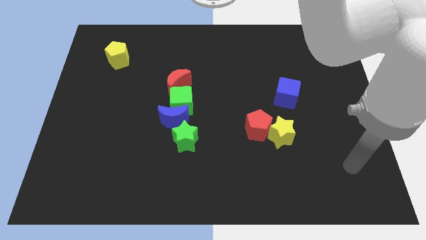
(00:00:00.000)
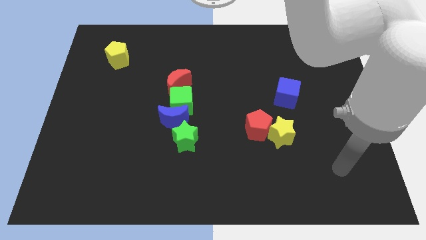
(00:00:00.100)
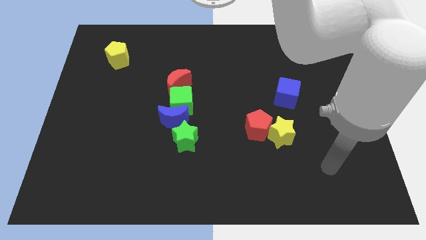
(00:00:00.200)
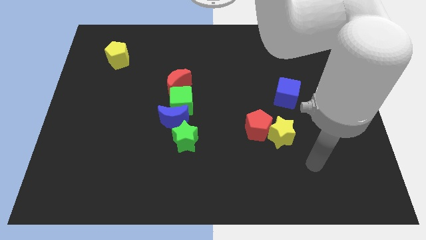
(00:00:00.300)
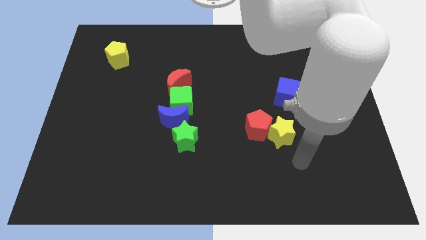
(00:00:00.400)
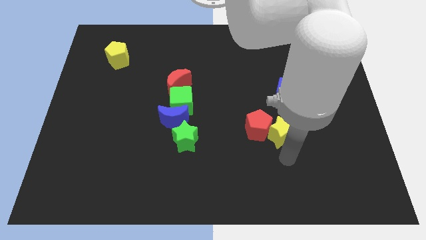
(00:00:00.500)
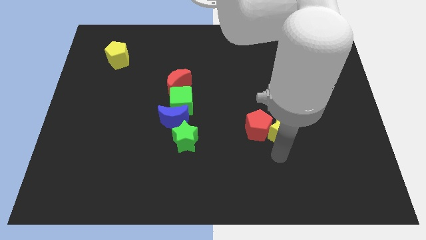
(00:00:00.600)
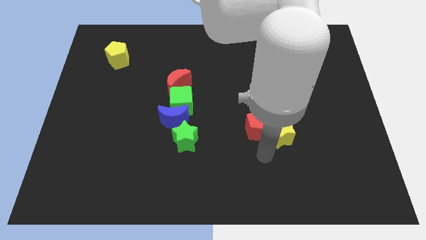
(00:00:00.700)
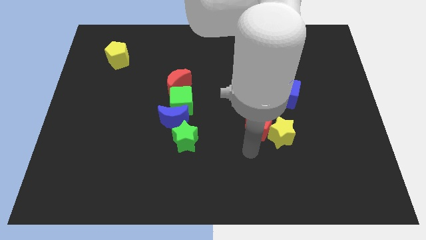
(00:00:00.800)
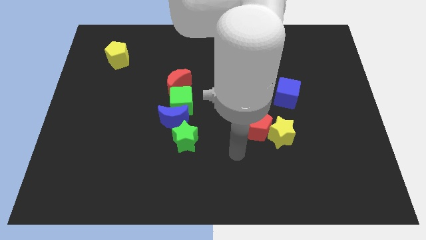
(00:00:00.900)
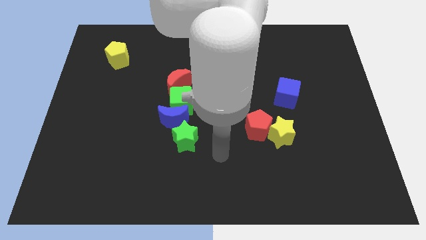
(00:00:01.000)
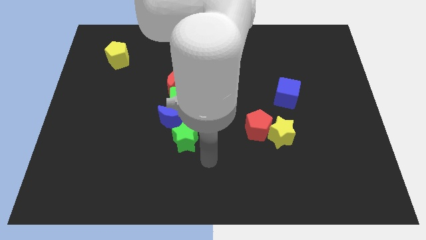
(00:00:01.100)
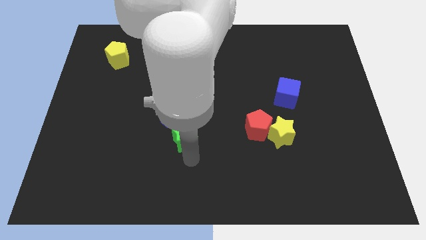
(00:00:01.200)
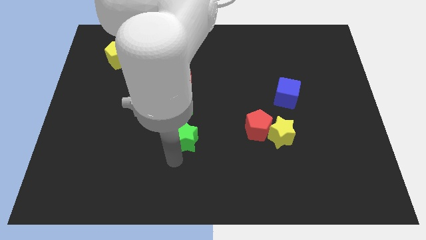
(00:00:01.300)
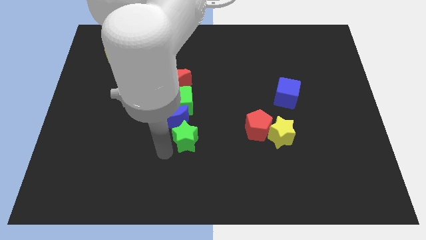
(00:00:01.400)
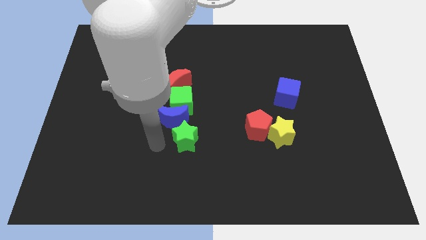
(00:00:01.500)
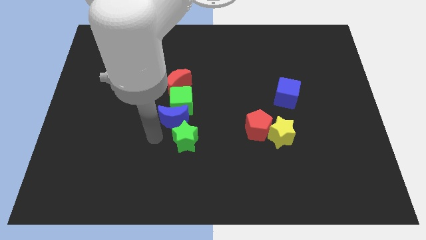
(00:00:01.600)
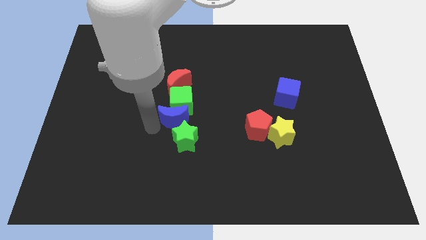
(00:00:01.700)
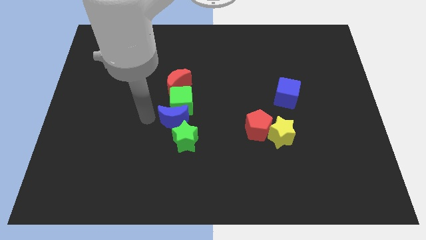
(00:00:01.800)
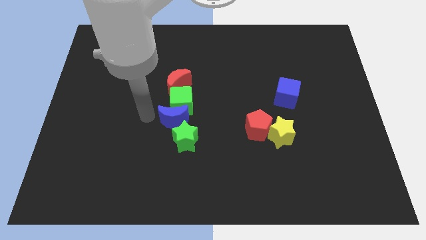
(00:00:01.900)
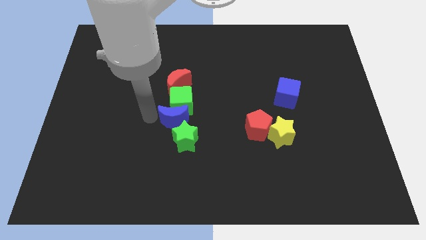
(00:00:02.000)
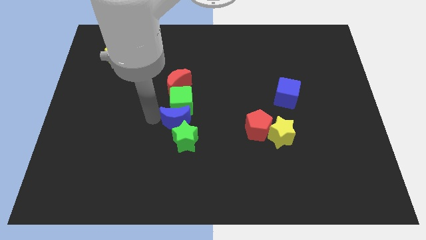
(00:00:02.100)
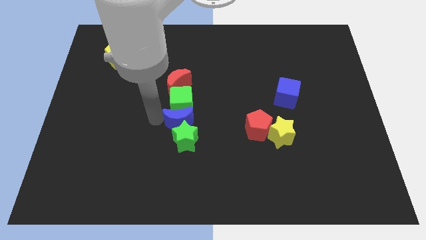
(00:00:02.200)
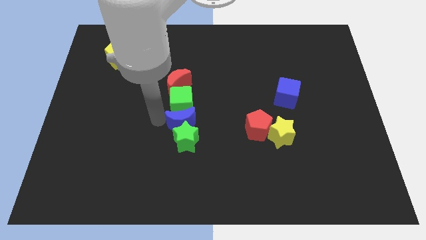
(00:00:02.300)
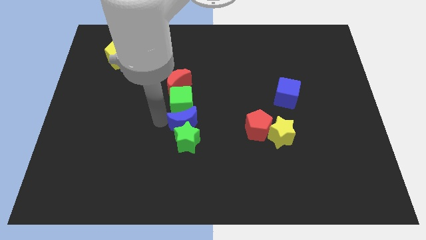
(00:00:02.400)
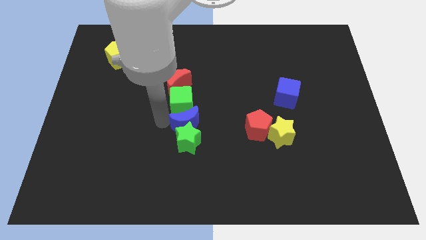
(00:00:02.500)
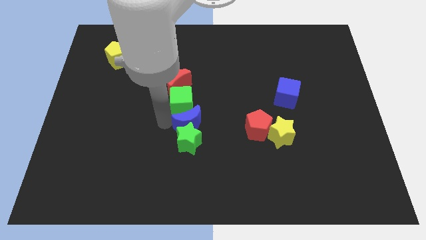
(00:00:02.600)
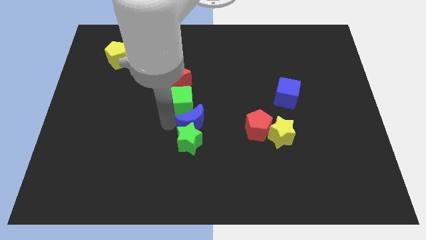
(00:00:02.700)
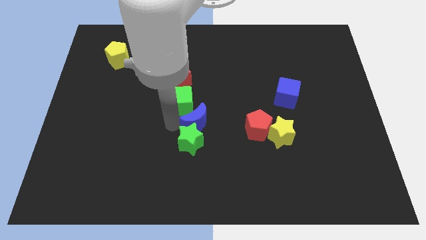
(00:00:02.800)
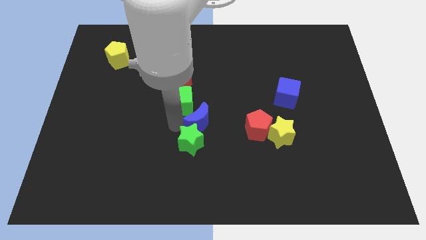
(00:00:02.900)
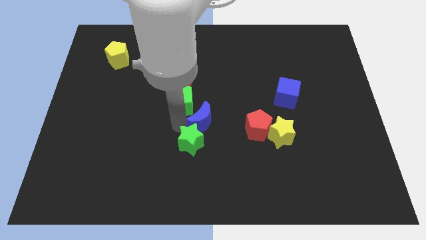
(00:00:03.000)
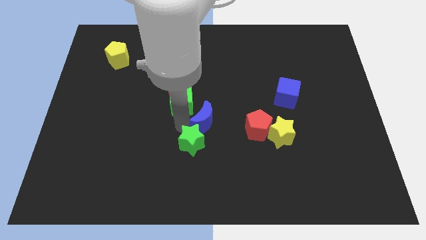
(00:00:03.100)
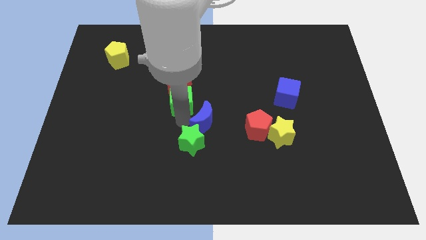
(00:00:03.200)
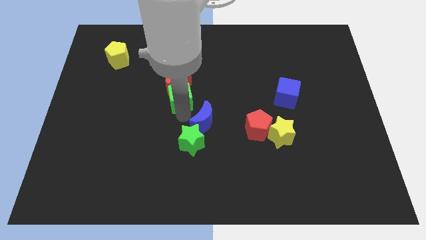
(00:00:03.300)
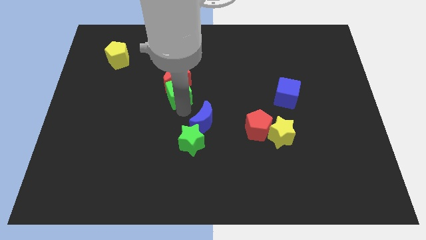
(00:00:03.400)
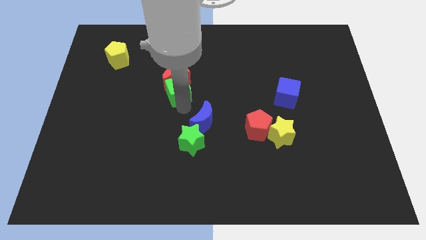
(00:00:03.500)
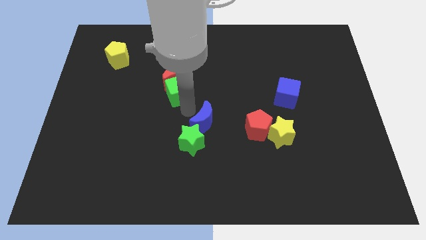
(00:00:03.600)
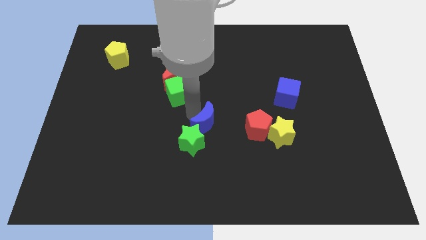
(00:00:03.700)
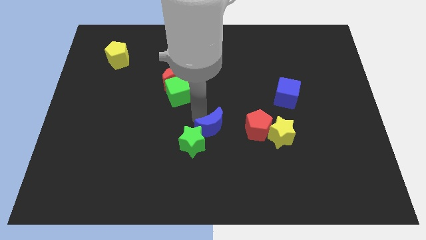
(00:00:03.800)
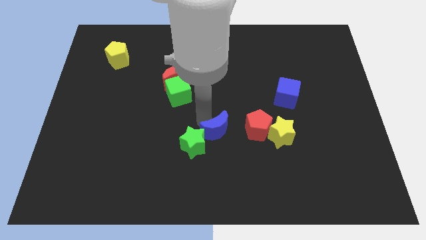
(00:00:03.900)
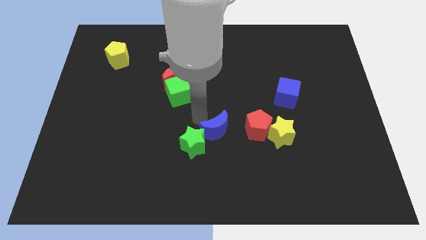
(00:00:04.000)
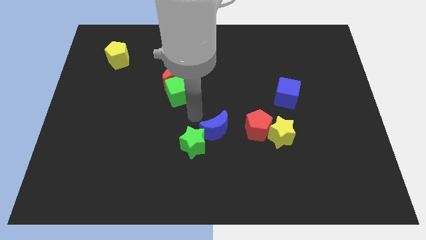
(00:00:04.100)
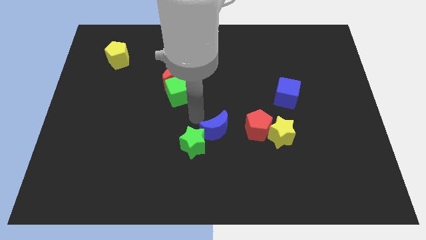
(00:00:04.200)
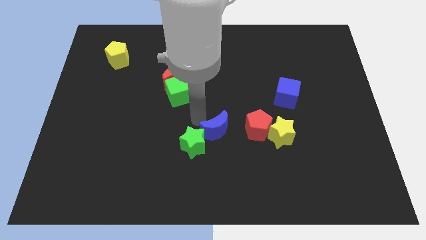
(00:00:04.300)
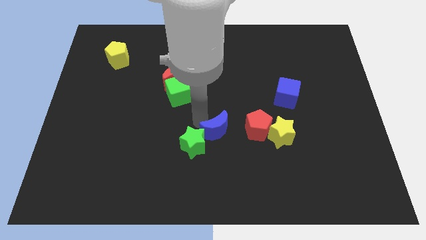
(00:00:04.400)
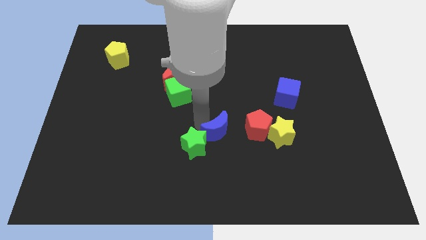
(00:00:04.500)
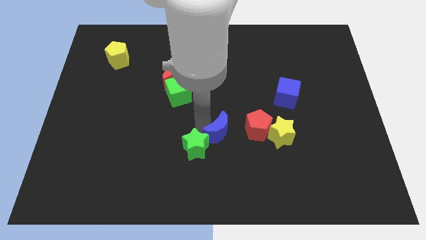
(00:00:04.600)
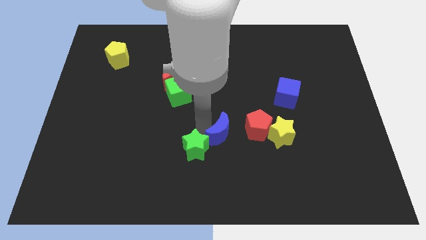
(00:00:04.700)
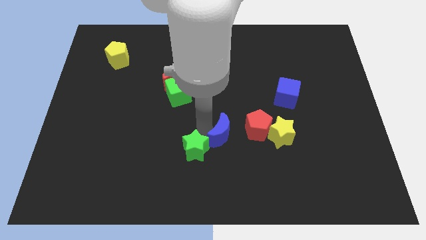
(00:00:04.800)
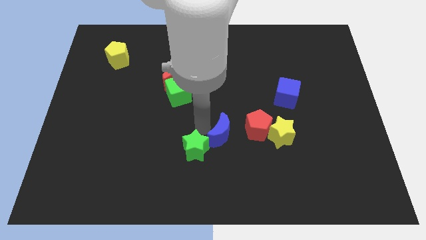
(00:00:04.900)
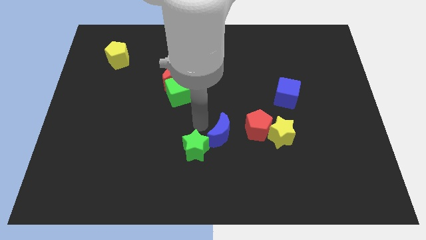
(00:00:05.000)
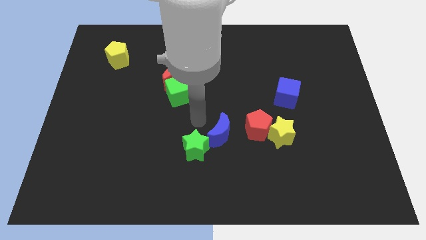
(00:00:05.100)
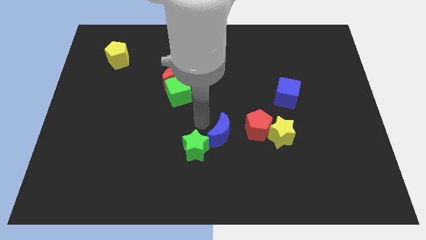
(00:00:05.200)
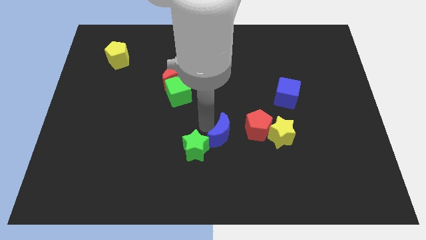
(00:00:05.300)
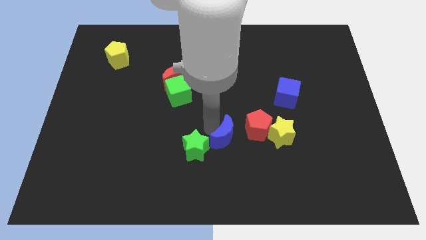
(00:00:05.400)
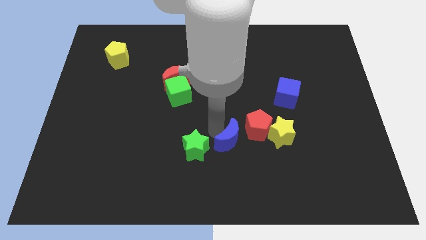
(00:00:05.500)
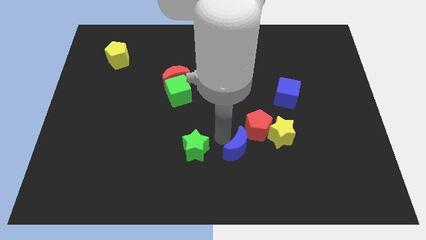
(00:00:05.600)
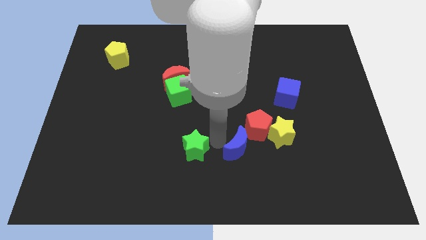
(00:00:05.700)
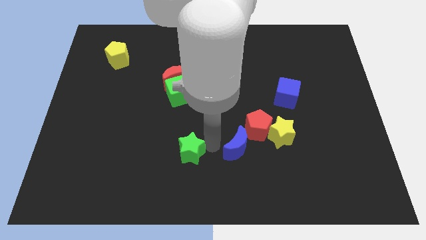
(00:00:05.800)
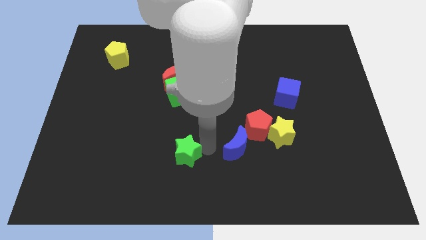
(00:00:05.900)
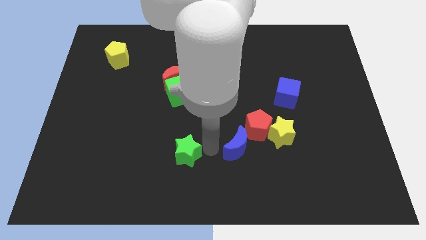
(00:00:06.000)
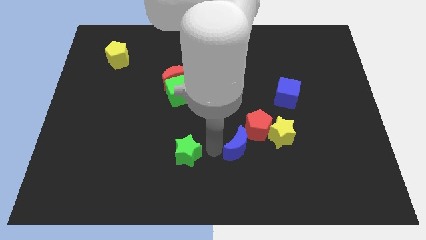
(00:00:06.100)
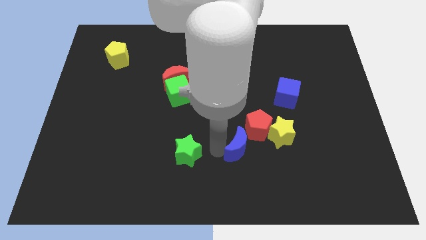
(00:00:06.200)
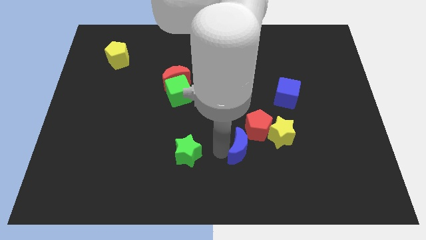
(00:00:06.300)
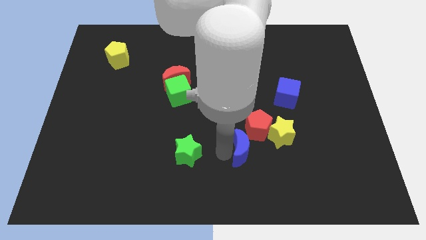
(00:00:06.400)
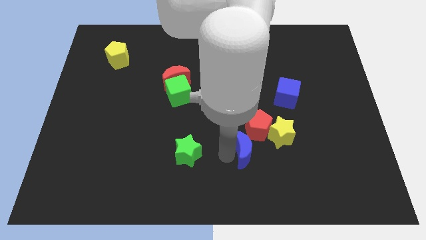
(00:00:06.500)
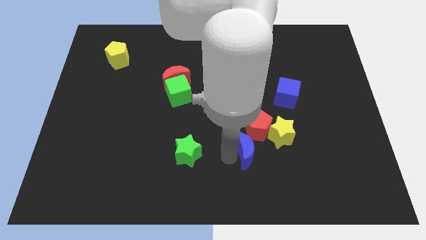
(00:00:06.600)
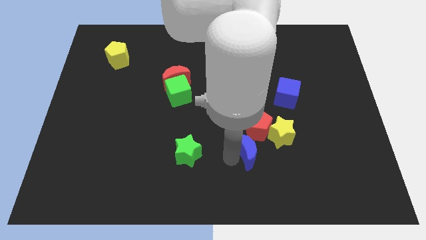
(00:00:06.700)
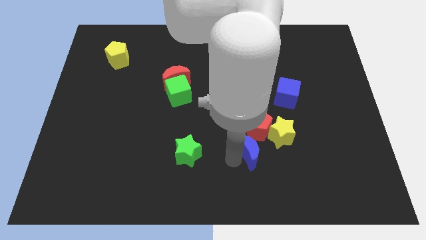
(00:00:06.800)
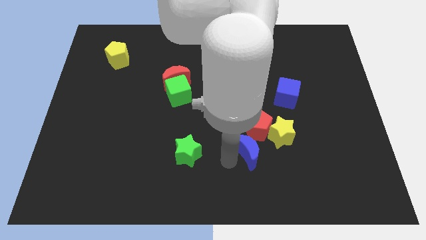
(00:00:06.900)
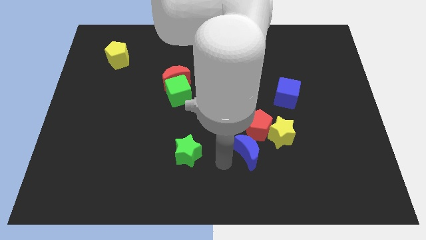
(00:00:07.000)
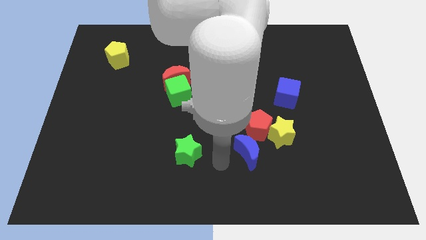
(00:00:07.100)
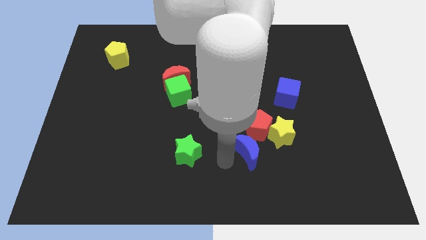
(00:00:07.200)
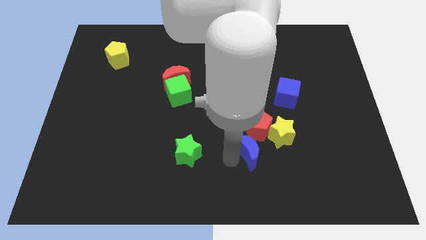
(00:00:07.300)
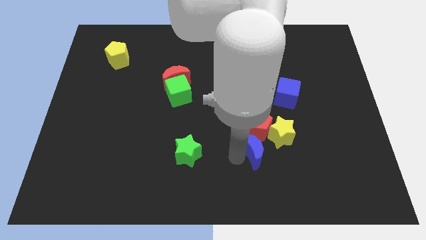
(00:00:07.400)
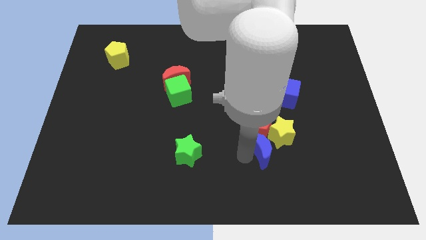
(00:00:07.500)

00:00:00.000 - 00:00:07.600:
push the blue moon to the yellow star

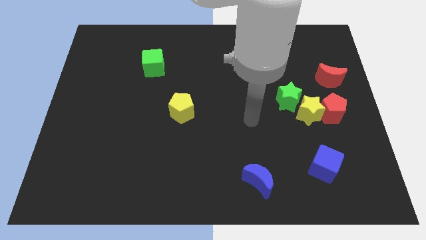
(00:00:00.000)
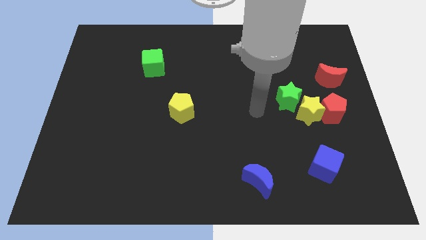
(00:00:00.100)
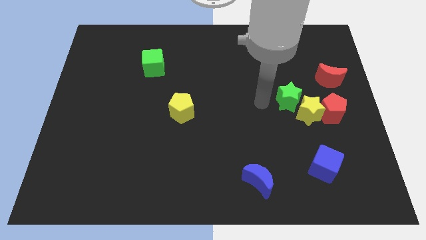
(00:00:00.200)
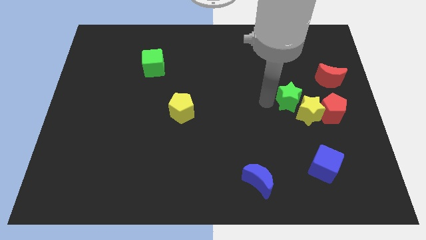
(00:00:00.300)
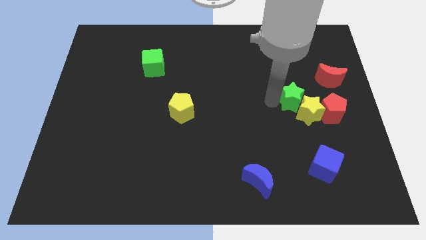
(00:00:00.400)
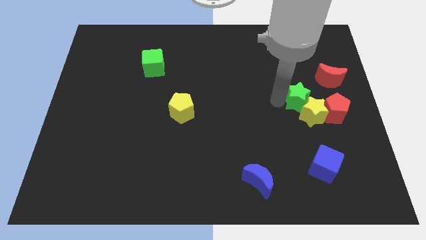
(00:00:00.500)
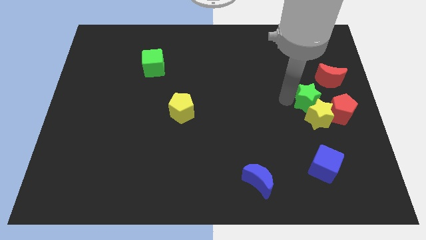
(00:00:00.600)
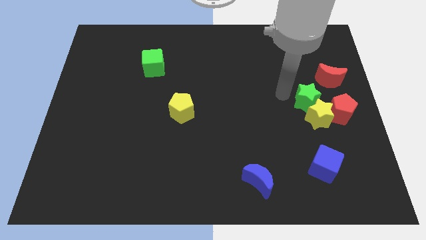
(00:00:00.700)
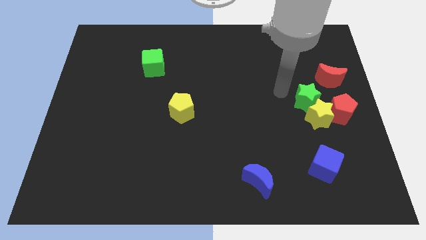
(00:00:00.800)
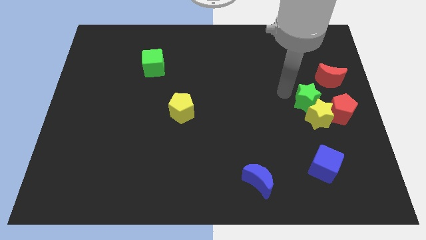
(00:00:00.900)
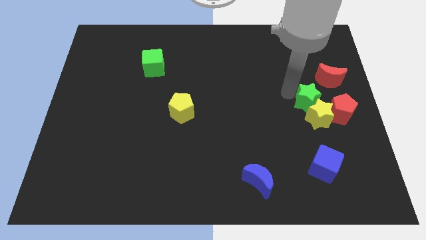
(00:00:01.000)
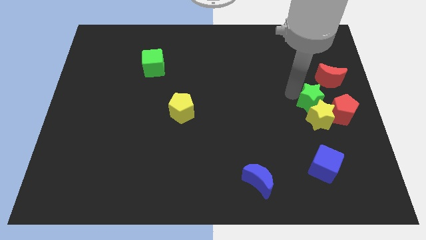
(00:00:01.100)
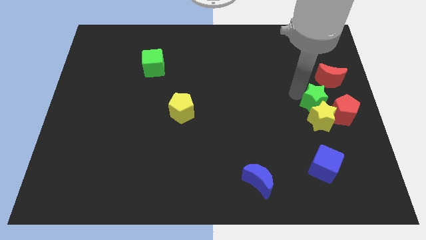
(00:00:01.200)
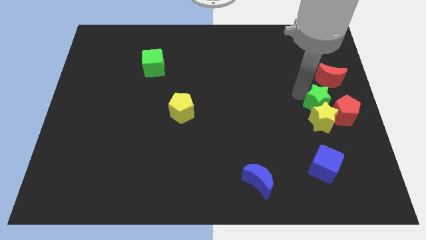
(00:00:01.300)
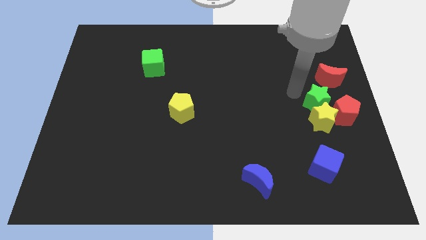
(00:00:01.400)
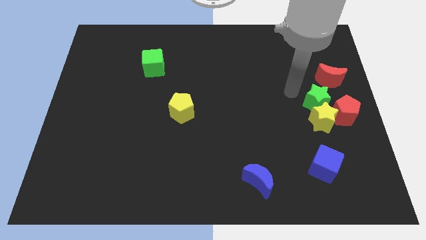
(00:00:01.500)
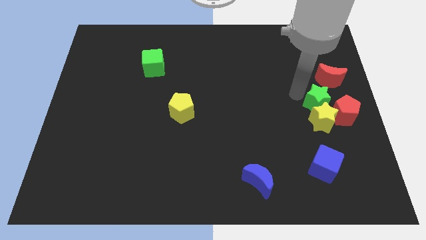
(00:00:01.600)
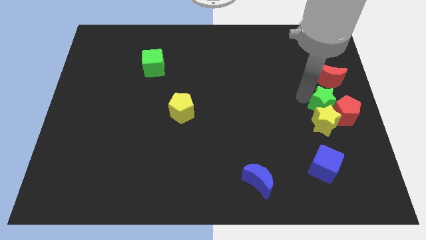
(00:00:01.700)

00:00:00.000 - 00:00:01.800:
put the green star next to the red pentagon
